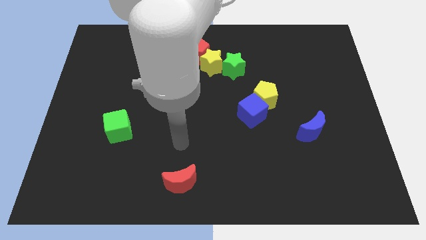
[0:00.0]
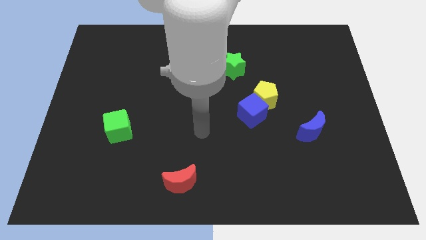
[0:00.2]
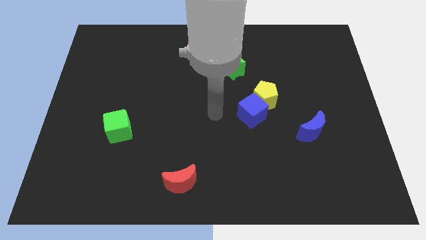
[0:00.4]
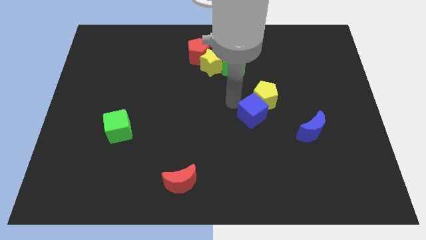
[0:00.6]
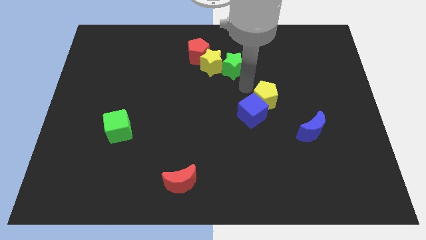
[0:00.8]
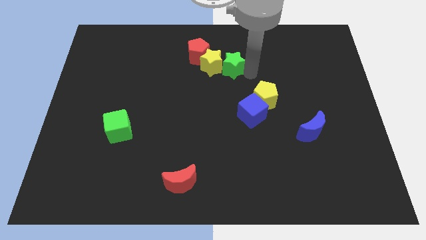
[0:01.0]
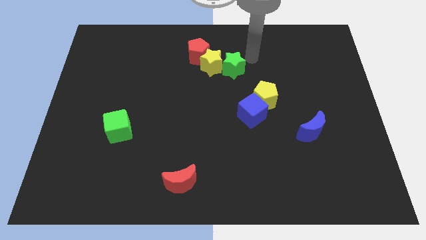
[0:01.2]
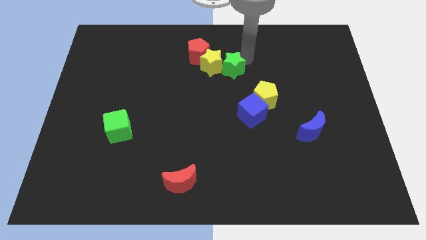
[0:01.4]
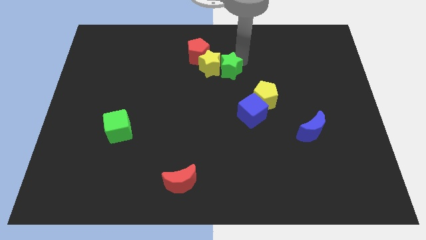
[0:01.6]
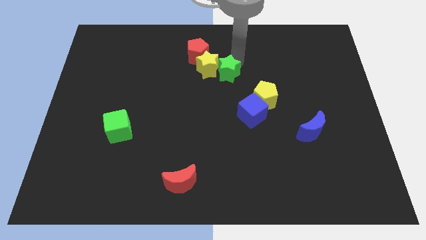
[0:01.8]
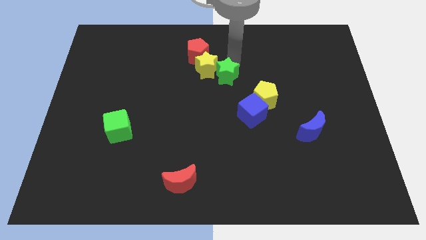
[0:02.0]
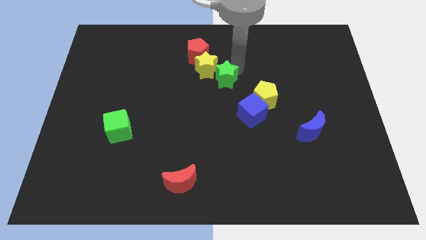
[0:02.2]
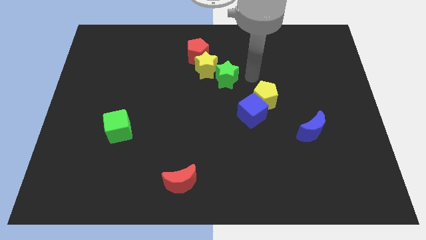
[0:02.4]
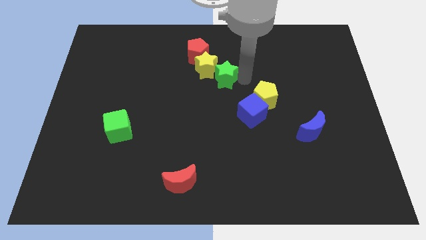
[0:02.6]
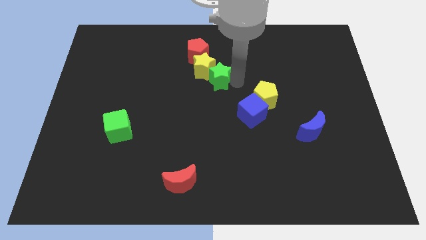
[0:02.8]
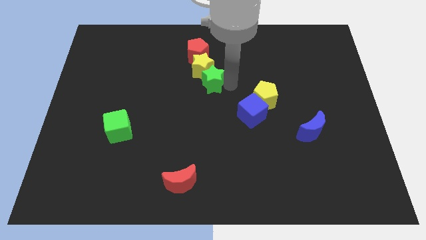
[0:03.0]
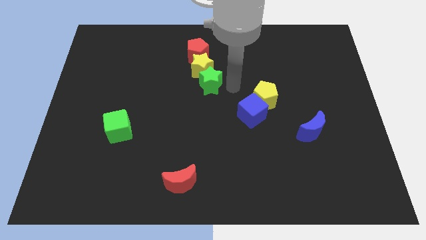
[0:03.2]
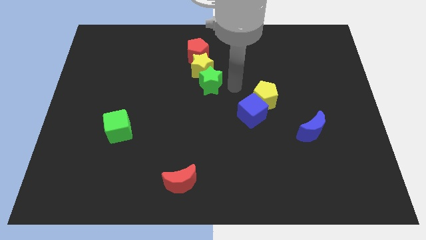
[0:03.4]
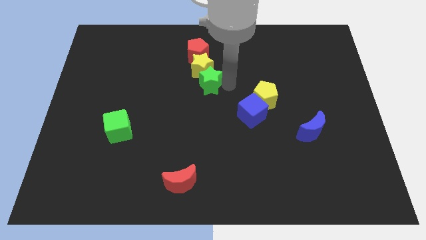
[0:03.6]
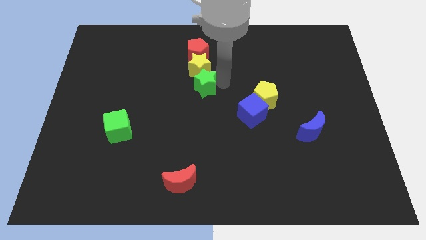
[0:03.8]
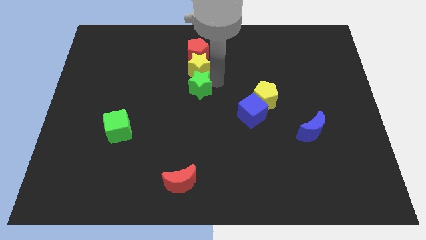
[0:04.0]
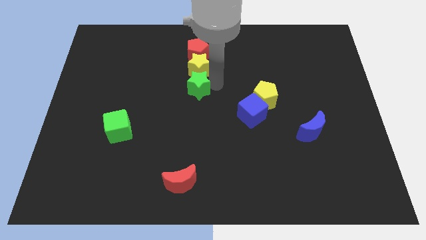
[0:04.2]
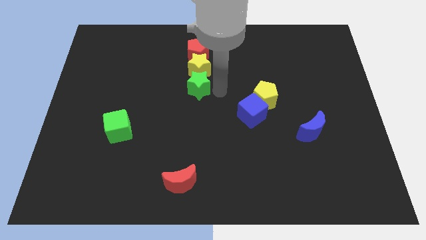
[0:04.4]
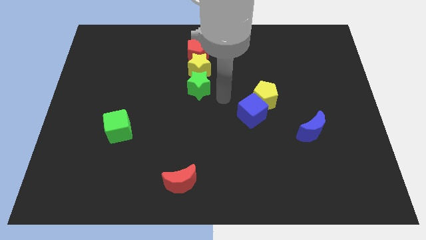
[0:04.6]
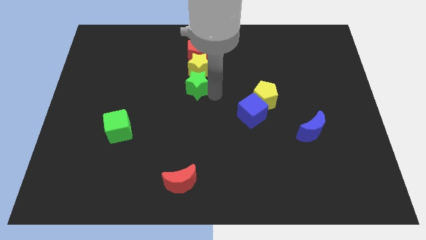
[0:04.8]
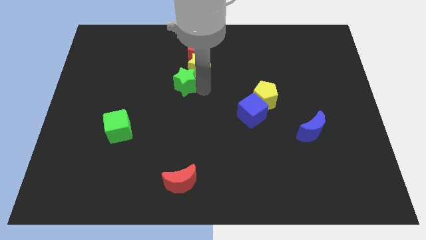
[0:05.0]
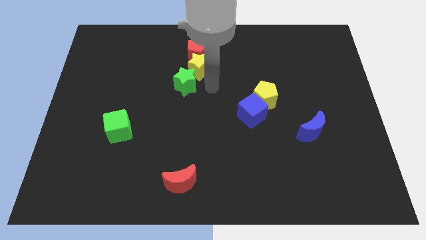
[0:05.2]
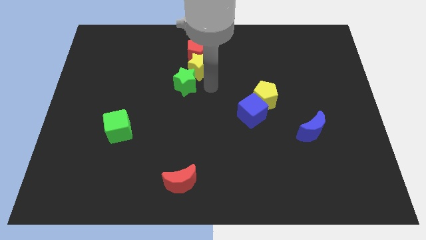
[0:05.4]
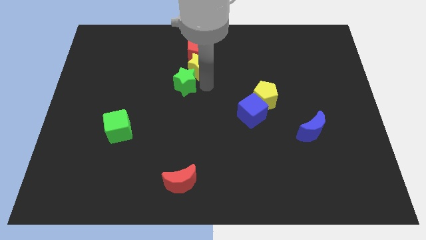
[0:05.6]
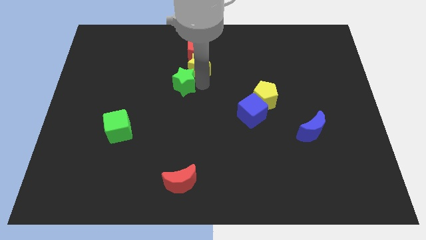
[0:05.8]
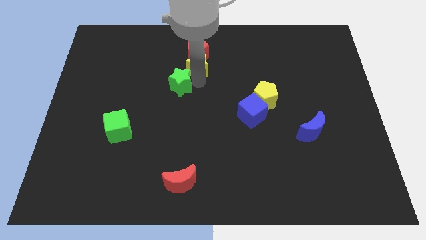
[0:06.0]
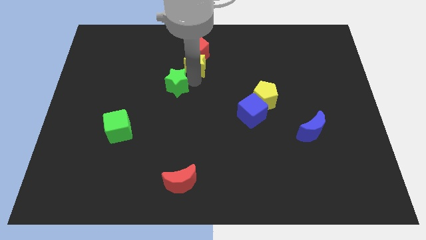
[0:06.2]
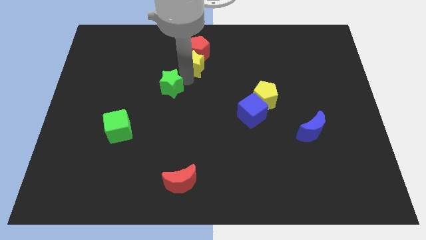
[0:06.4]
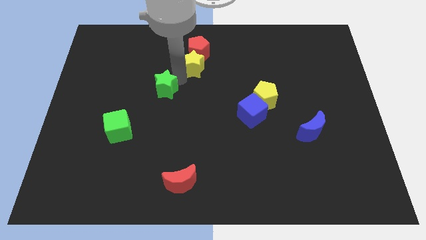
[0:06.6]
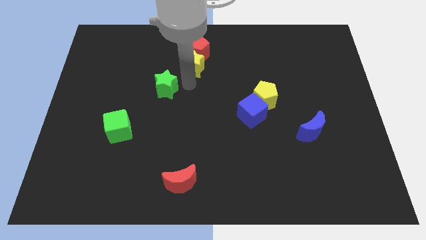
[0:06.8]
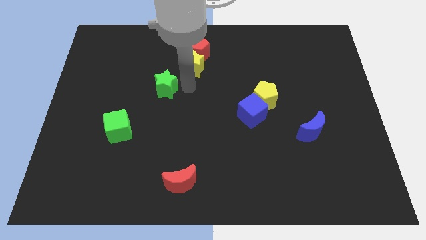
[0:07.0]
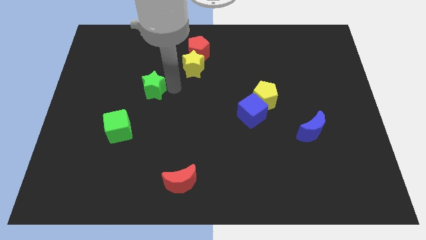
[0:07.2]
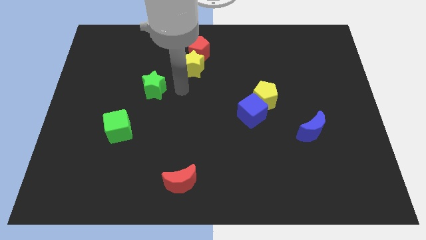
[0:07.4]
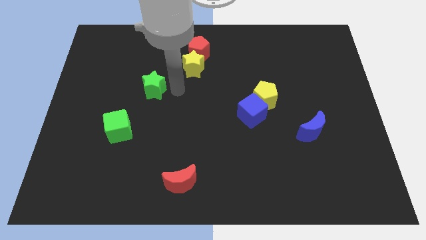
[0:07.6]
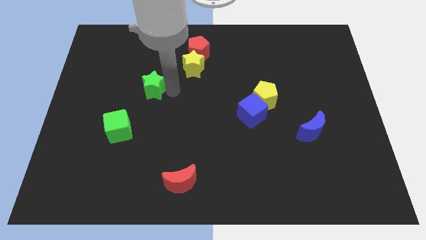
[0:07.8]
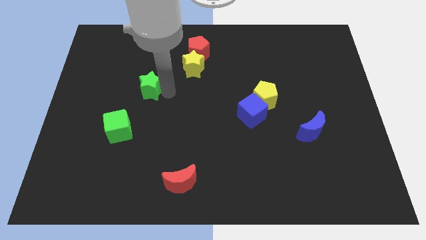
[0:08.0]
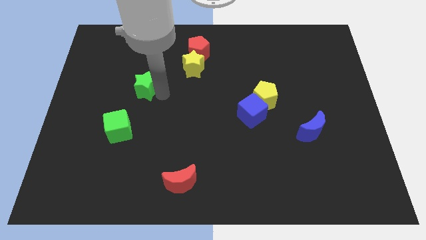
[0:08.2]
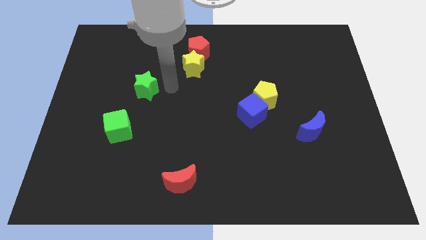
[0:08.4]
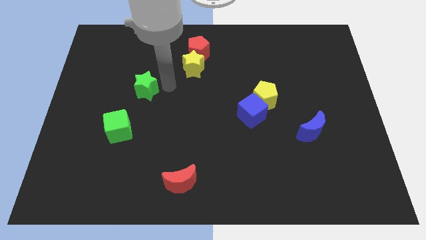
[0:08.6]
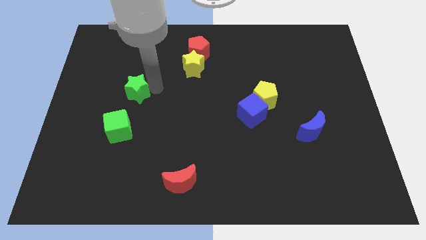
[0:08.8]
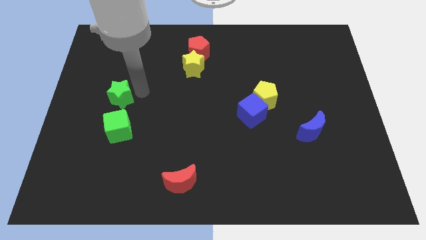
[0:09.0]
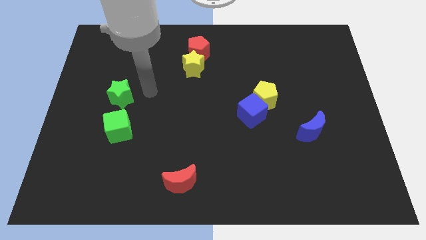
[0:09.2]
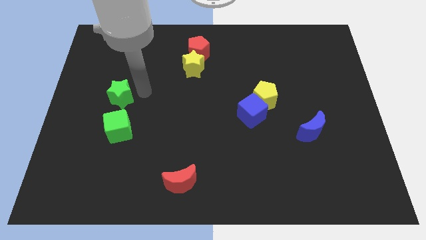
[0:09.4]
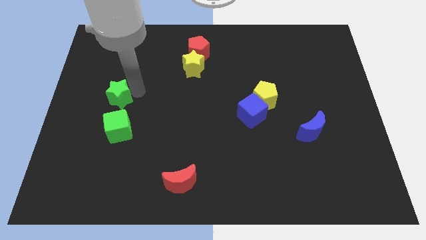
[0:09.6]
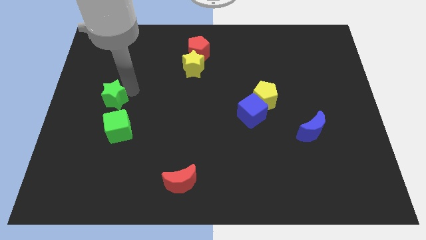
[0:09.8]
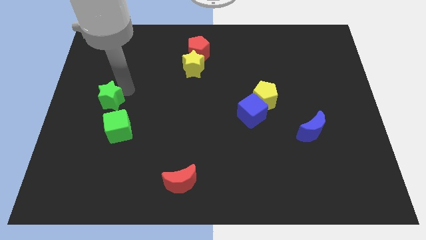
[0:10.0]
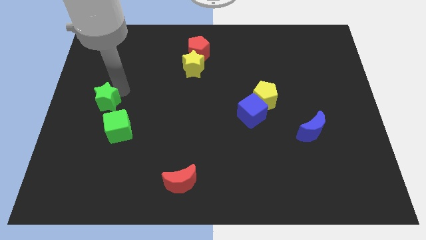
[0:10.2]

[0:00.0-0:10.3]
put the green star to the left side of the board

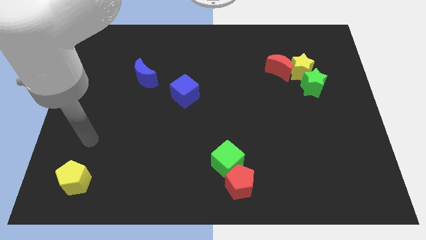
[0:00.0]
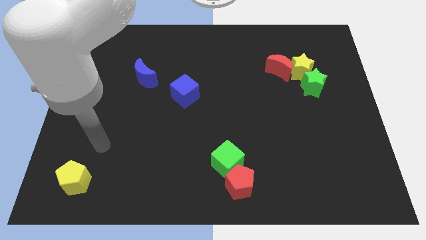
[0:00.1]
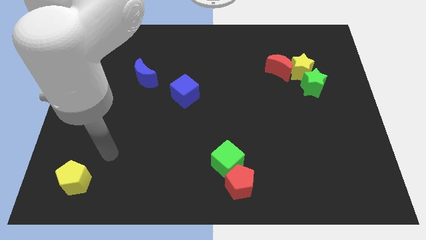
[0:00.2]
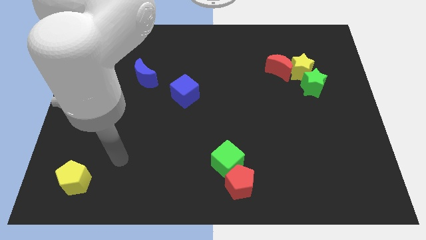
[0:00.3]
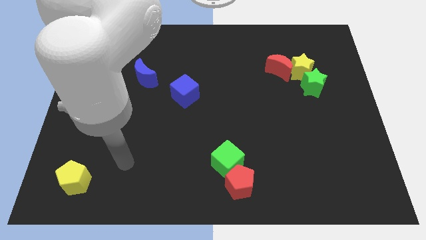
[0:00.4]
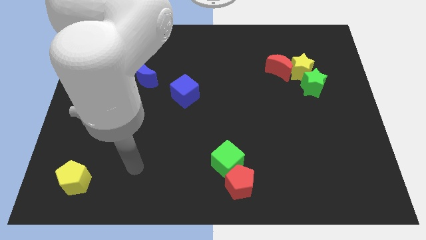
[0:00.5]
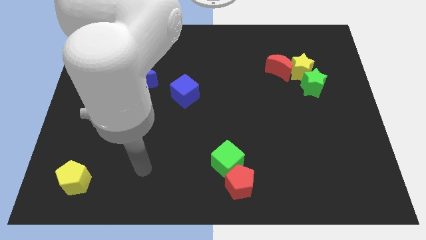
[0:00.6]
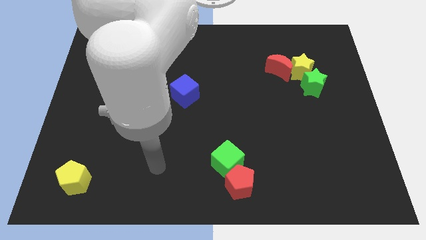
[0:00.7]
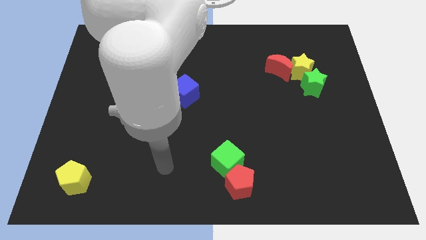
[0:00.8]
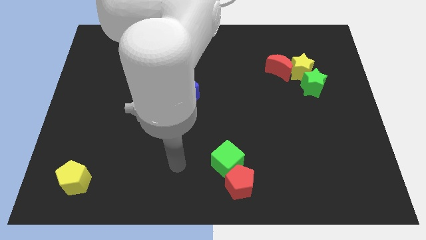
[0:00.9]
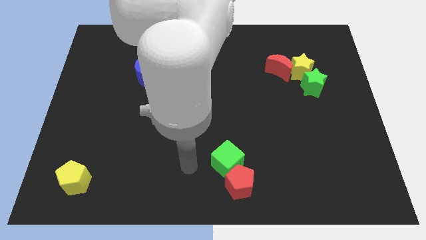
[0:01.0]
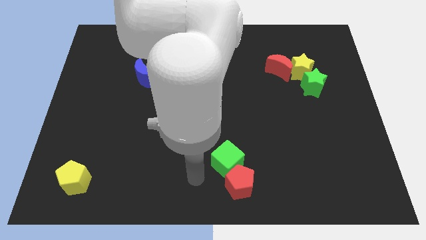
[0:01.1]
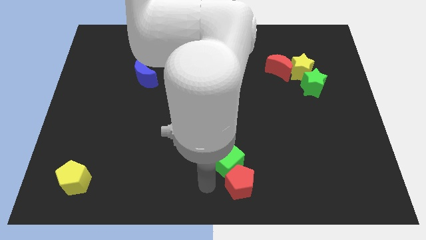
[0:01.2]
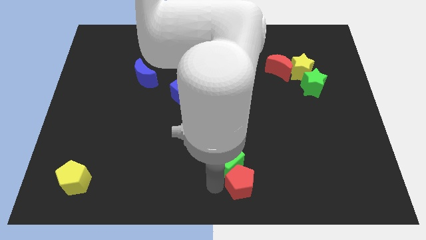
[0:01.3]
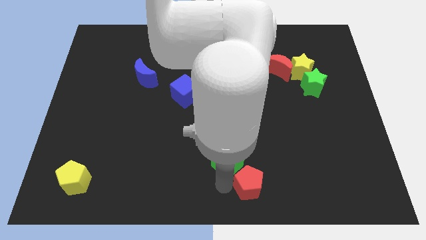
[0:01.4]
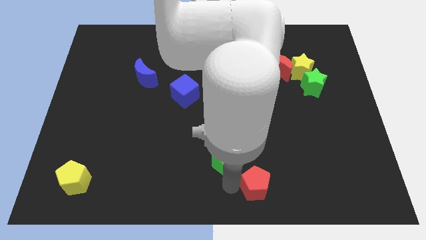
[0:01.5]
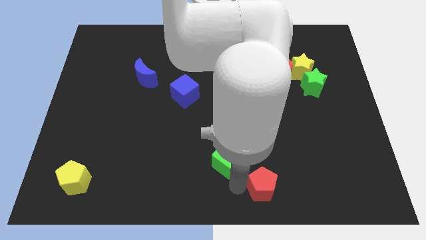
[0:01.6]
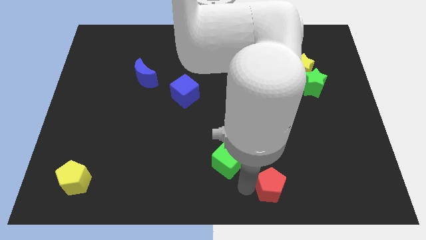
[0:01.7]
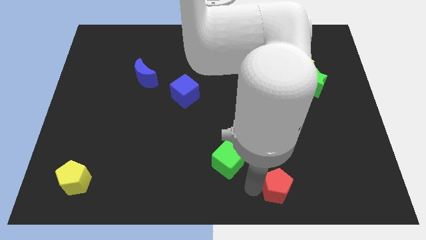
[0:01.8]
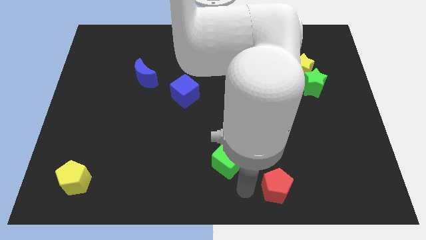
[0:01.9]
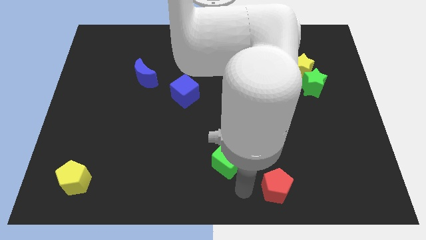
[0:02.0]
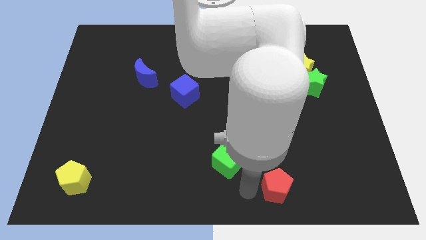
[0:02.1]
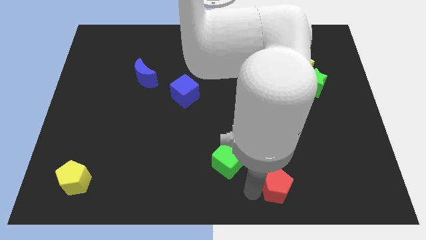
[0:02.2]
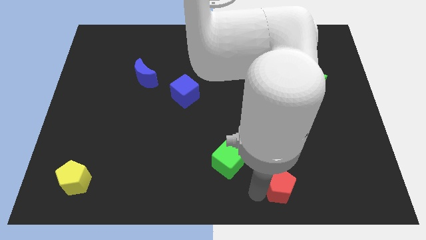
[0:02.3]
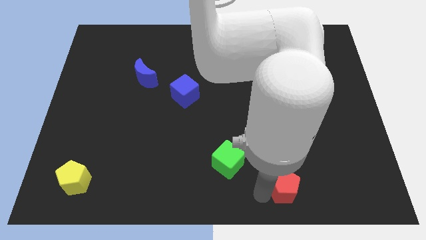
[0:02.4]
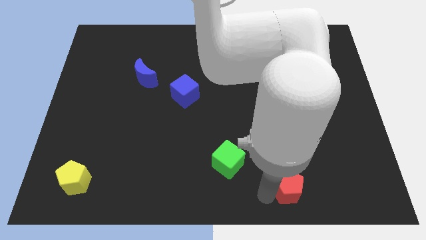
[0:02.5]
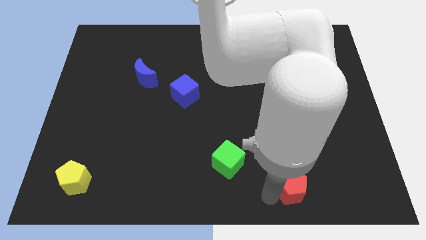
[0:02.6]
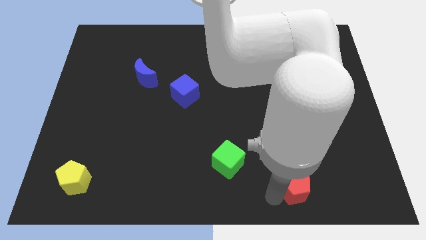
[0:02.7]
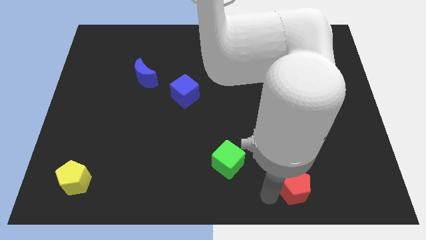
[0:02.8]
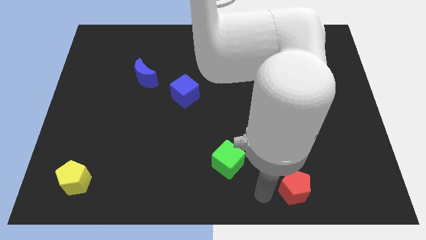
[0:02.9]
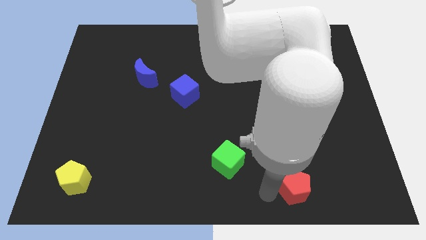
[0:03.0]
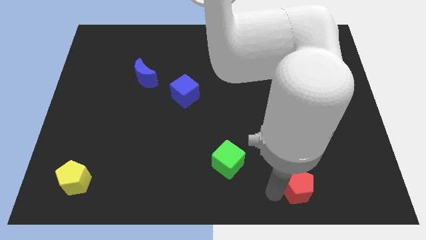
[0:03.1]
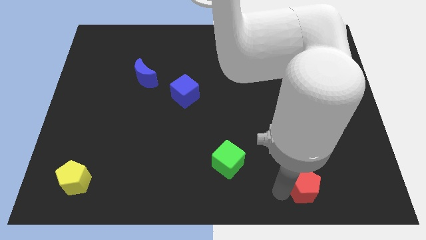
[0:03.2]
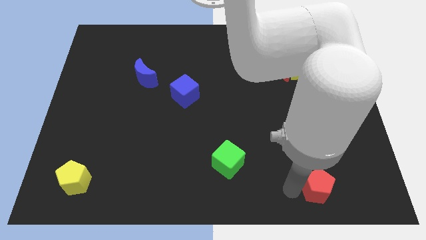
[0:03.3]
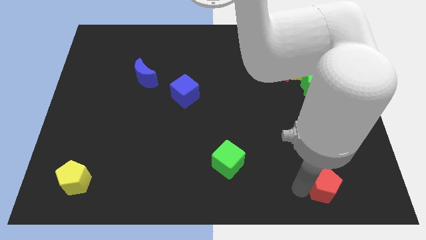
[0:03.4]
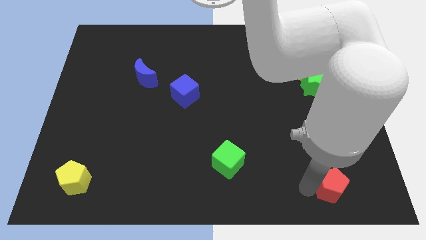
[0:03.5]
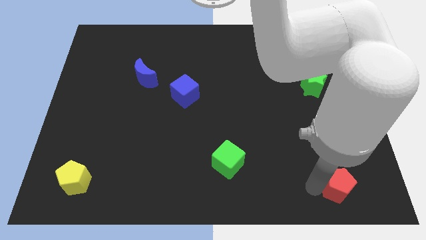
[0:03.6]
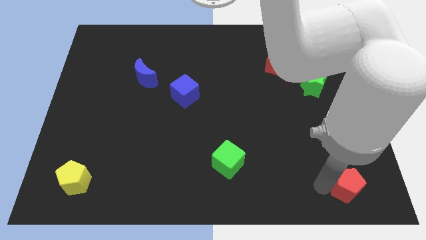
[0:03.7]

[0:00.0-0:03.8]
put the red pentagon to the bottom right
